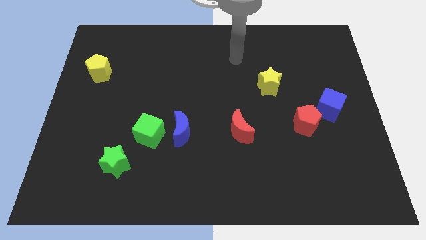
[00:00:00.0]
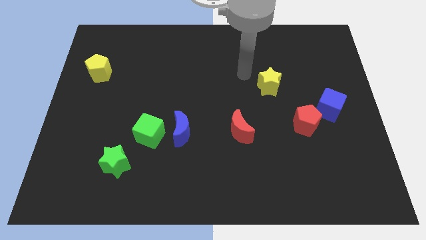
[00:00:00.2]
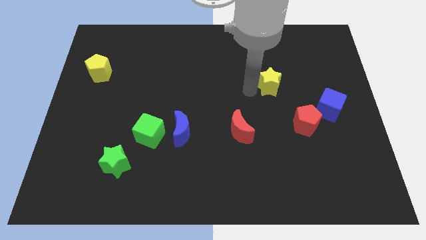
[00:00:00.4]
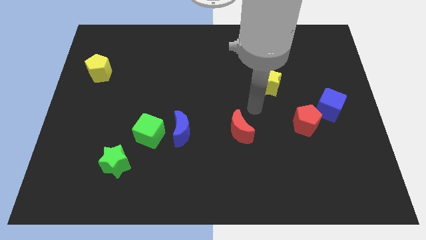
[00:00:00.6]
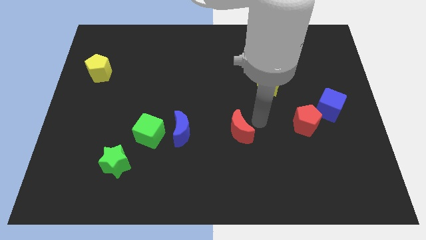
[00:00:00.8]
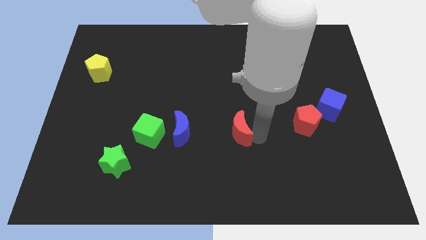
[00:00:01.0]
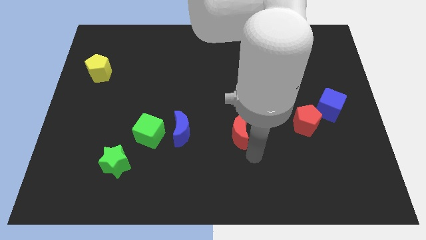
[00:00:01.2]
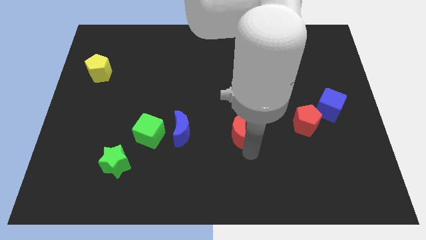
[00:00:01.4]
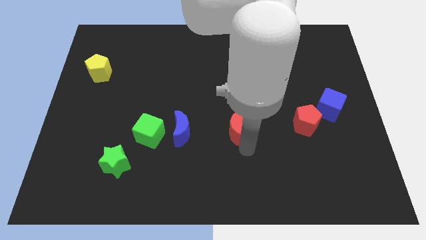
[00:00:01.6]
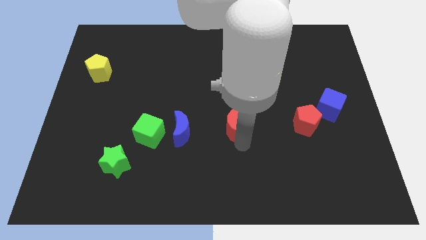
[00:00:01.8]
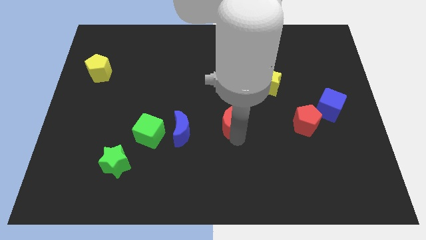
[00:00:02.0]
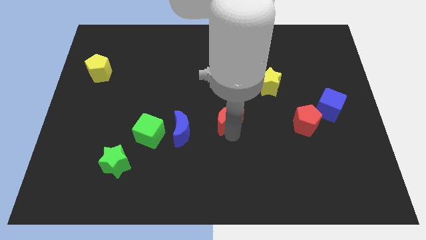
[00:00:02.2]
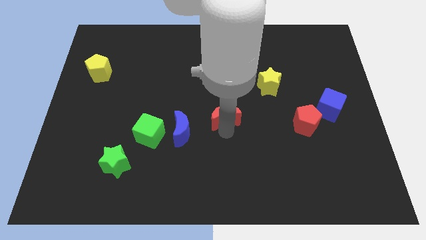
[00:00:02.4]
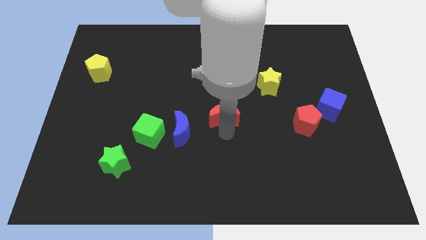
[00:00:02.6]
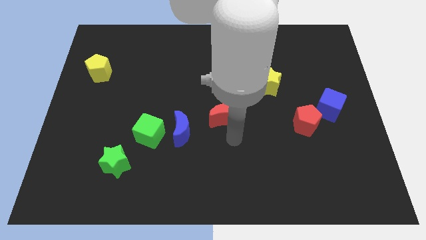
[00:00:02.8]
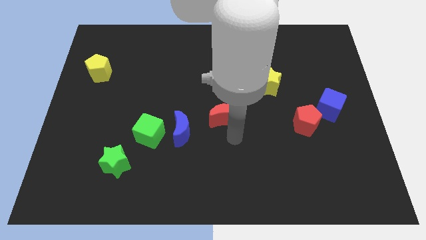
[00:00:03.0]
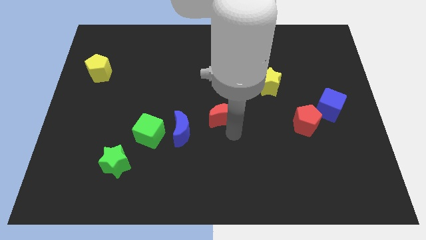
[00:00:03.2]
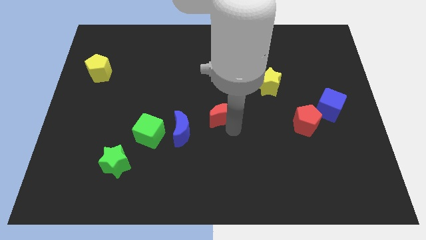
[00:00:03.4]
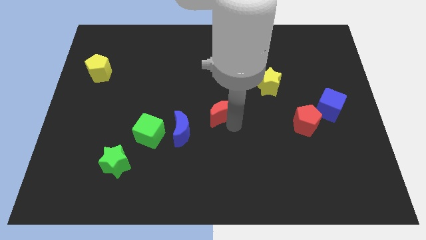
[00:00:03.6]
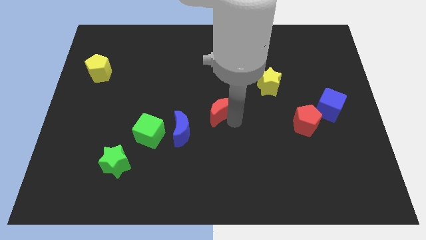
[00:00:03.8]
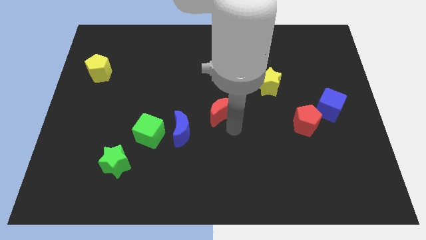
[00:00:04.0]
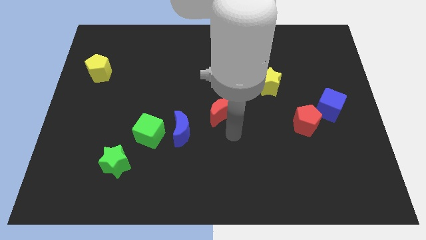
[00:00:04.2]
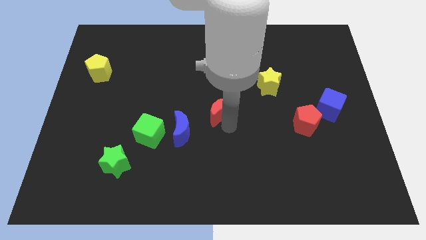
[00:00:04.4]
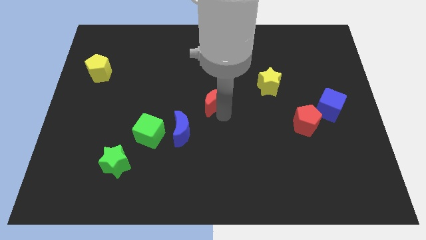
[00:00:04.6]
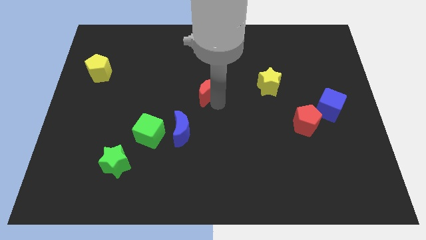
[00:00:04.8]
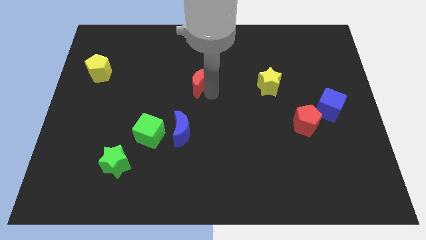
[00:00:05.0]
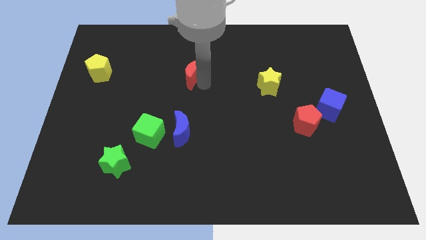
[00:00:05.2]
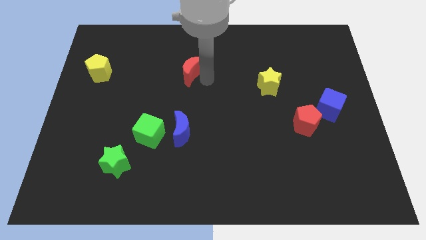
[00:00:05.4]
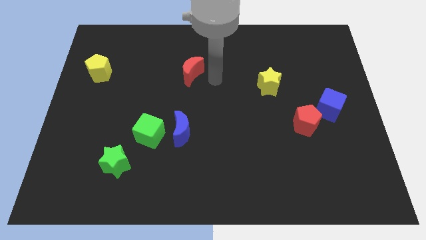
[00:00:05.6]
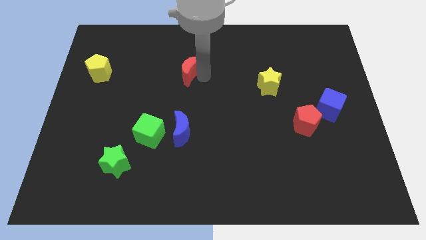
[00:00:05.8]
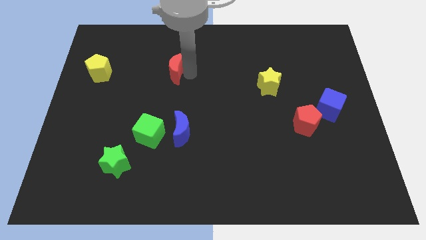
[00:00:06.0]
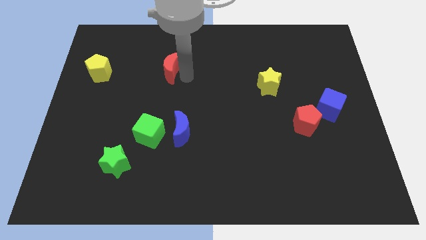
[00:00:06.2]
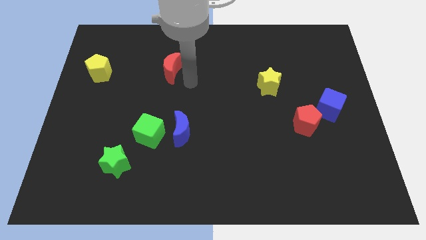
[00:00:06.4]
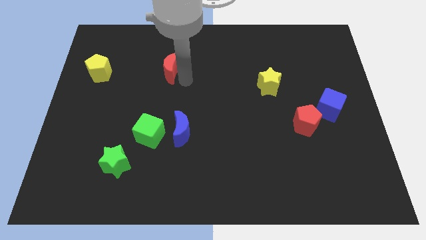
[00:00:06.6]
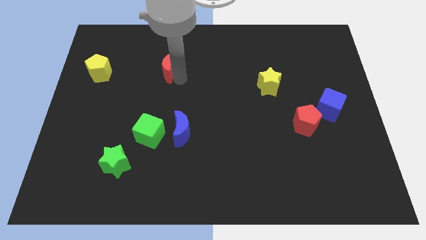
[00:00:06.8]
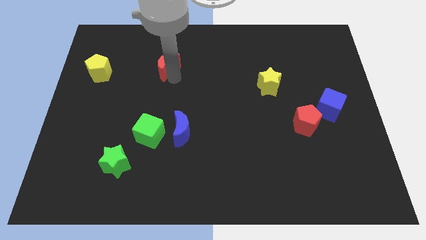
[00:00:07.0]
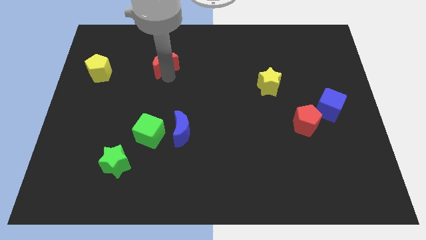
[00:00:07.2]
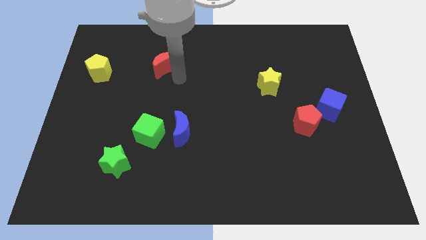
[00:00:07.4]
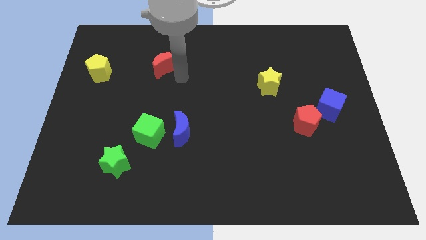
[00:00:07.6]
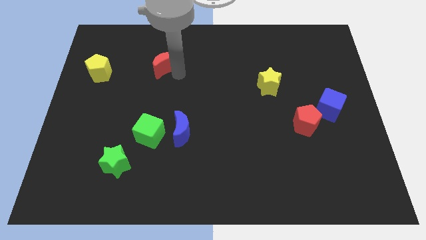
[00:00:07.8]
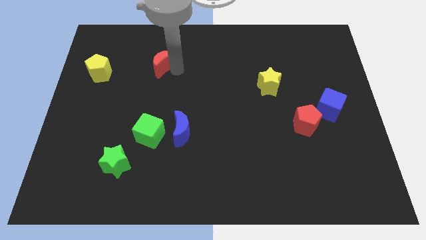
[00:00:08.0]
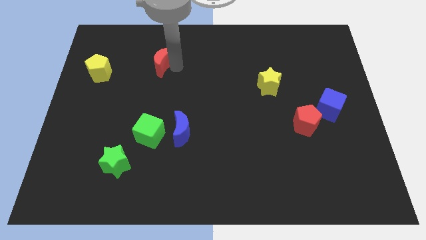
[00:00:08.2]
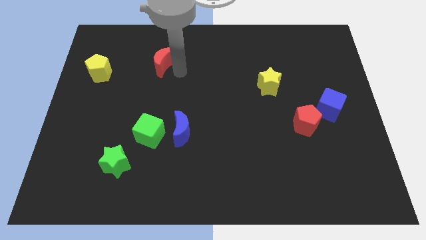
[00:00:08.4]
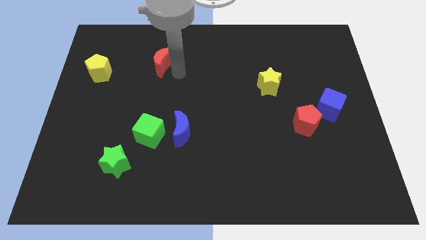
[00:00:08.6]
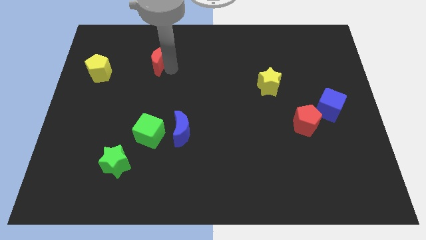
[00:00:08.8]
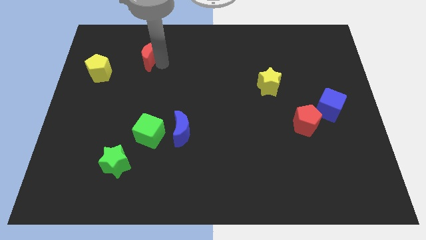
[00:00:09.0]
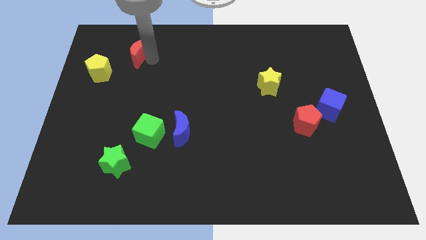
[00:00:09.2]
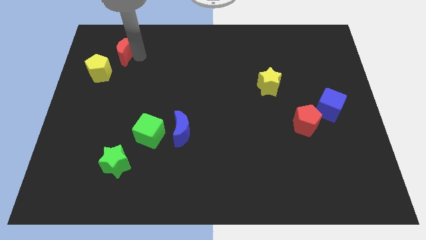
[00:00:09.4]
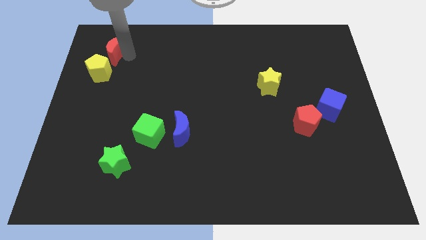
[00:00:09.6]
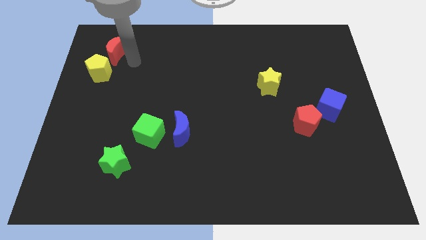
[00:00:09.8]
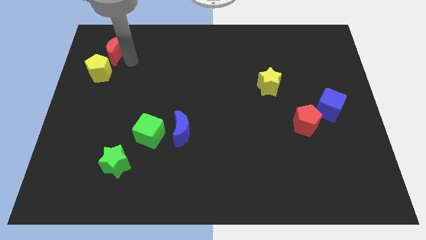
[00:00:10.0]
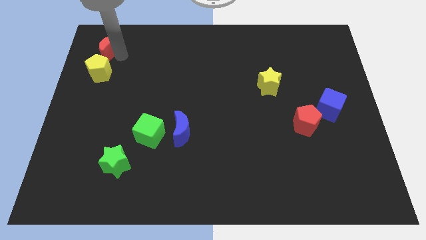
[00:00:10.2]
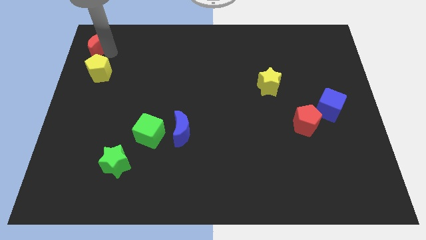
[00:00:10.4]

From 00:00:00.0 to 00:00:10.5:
slide the red moon to the upper left corner

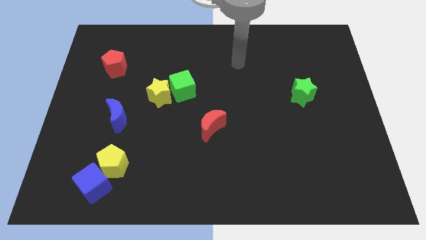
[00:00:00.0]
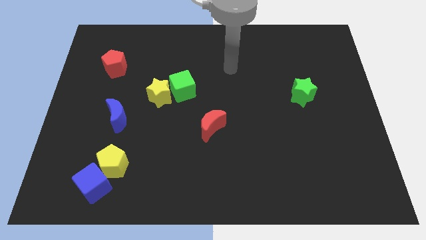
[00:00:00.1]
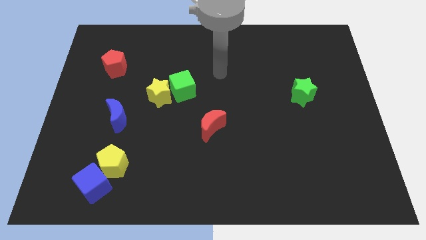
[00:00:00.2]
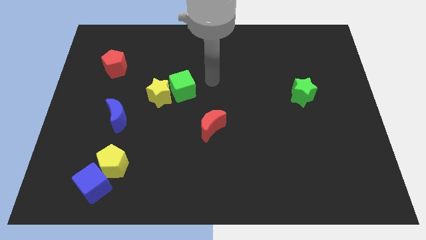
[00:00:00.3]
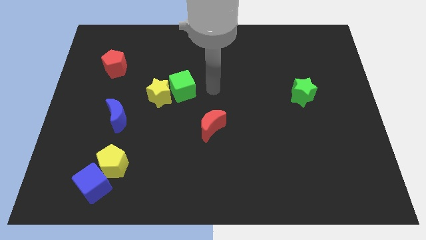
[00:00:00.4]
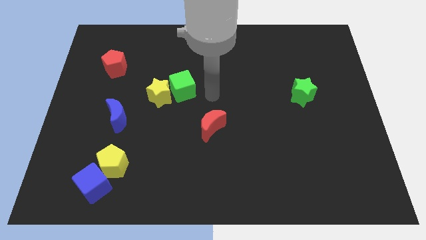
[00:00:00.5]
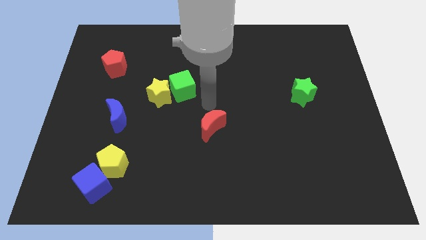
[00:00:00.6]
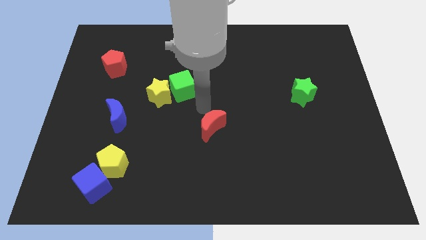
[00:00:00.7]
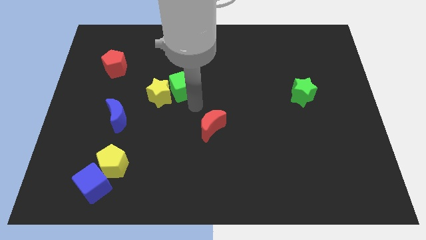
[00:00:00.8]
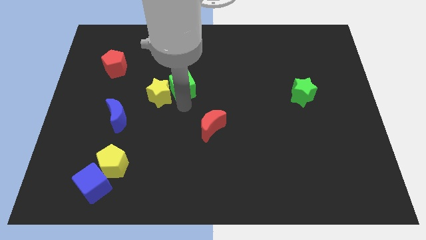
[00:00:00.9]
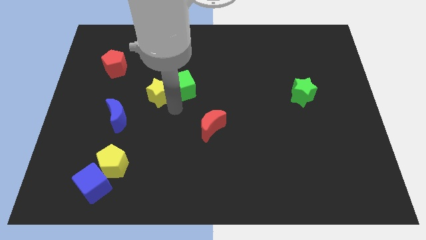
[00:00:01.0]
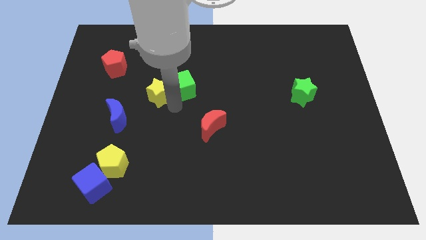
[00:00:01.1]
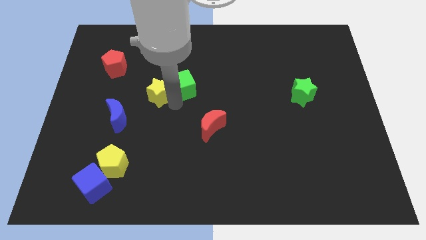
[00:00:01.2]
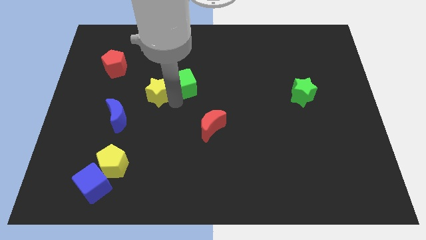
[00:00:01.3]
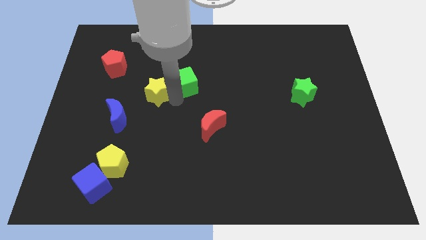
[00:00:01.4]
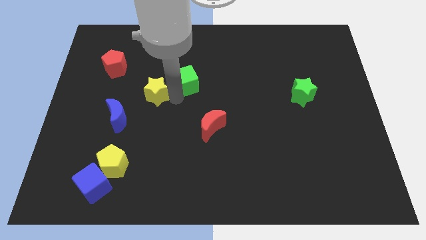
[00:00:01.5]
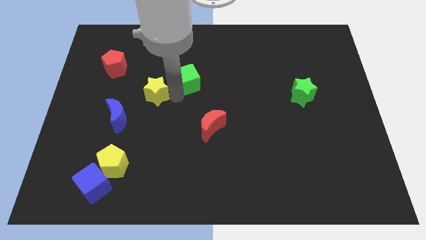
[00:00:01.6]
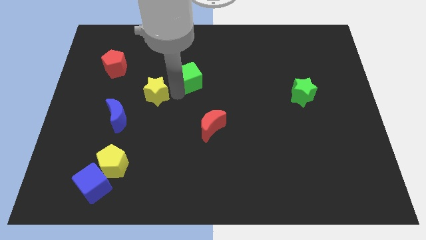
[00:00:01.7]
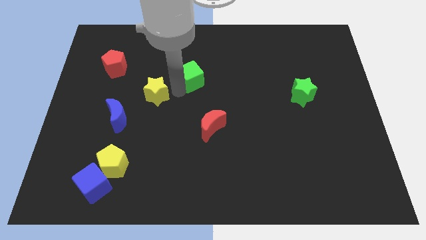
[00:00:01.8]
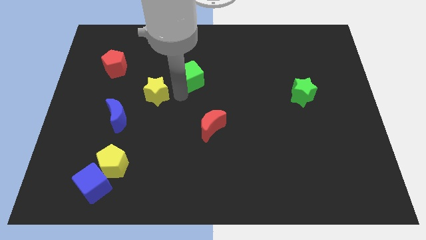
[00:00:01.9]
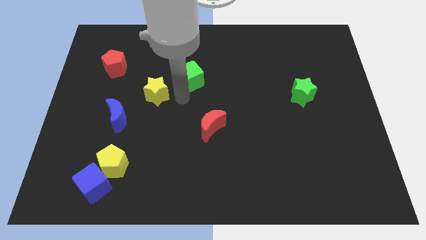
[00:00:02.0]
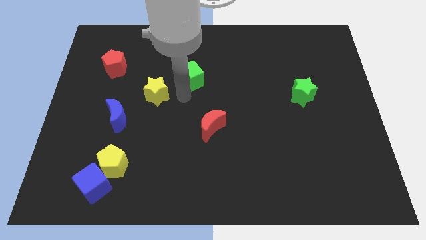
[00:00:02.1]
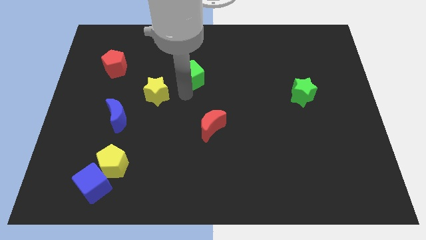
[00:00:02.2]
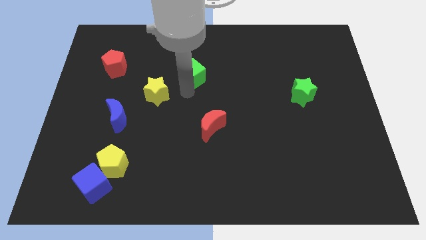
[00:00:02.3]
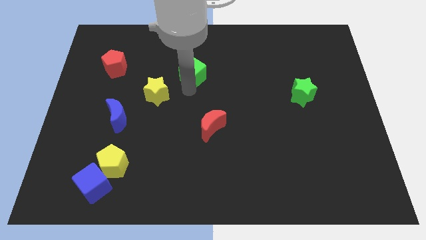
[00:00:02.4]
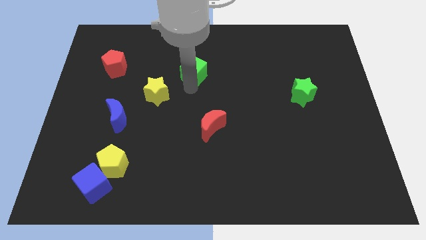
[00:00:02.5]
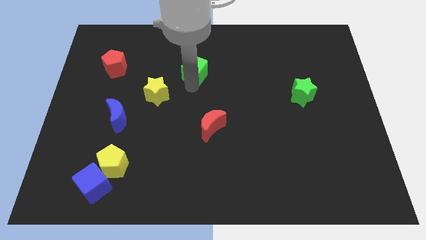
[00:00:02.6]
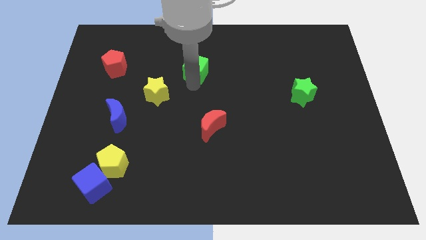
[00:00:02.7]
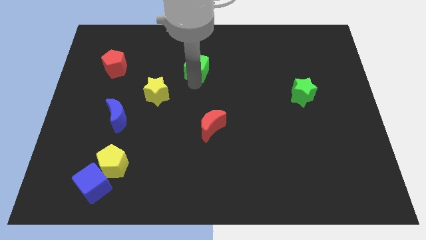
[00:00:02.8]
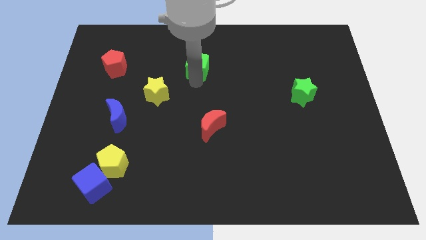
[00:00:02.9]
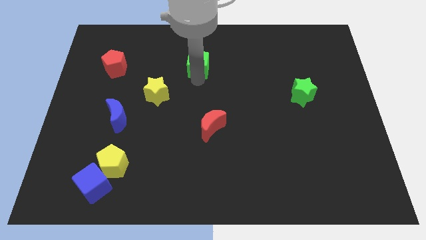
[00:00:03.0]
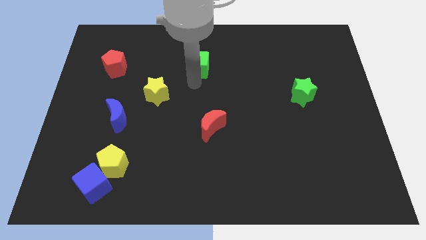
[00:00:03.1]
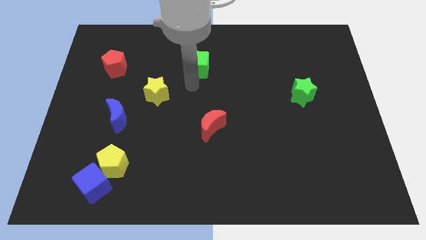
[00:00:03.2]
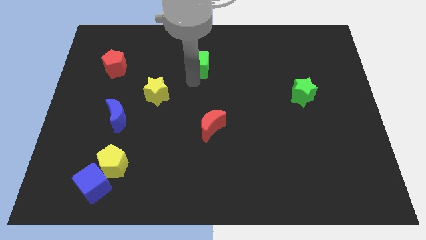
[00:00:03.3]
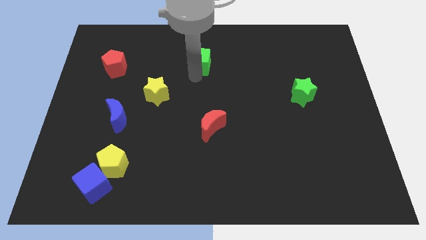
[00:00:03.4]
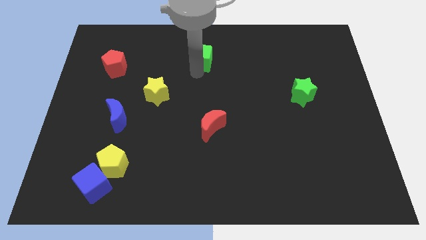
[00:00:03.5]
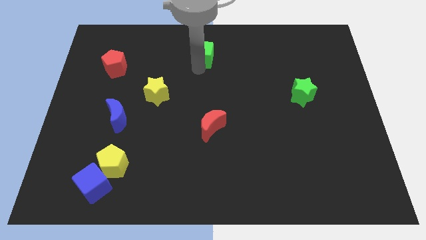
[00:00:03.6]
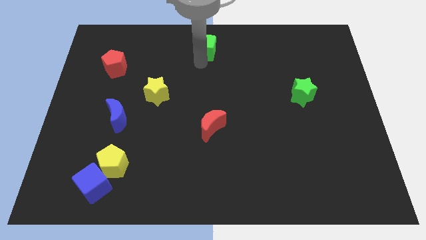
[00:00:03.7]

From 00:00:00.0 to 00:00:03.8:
push the green cube to the towards your base
